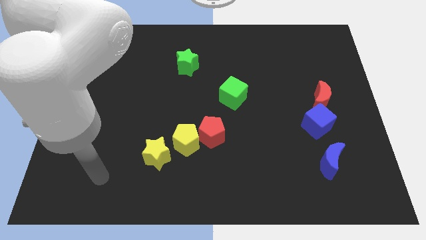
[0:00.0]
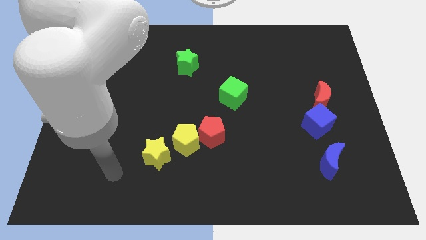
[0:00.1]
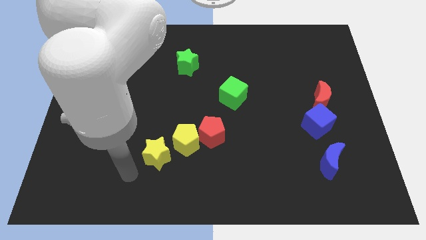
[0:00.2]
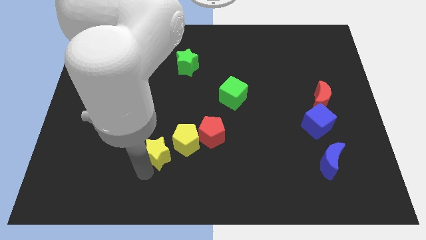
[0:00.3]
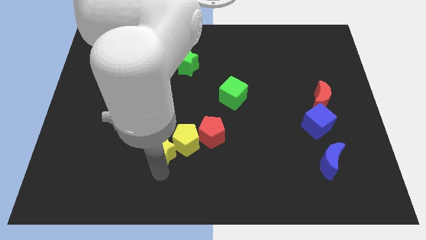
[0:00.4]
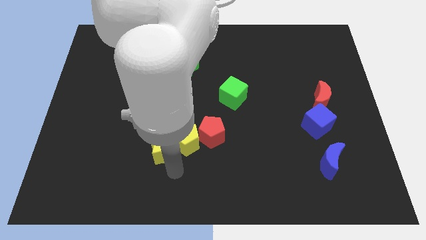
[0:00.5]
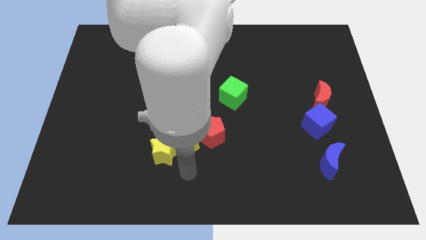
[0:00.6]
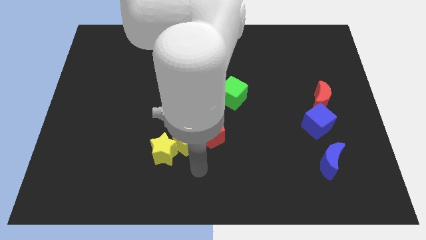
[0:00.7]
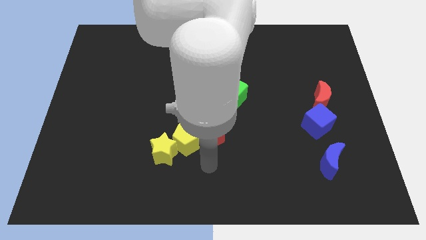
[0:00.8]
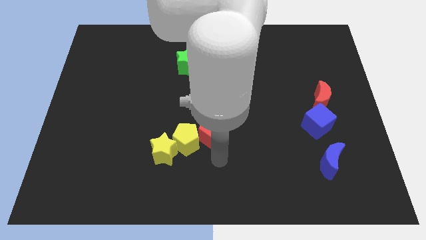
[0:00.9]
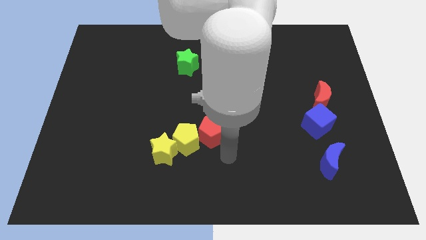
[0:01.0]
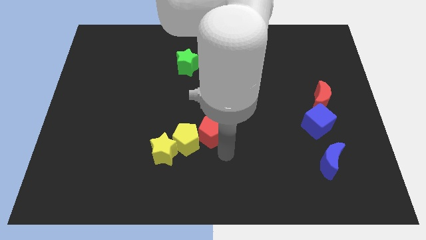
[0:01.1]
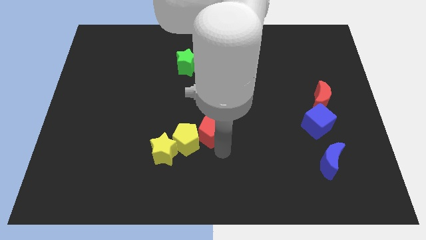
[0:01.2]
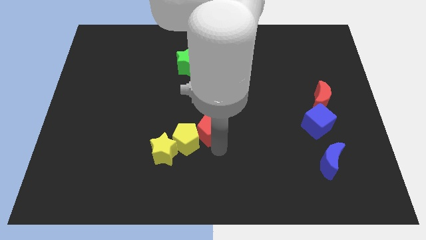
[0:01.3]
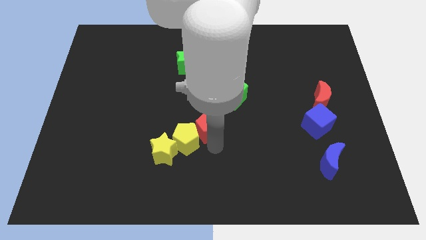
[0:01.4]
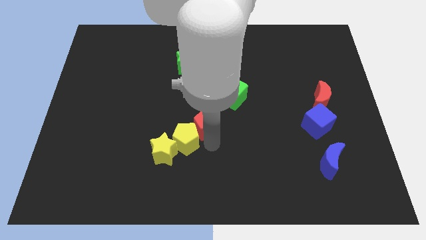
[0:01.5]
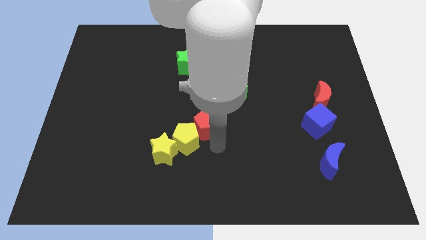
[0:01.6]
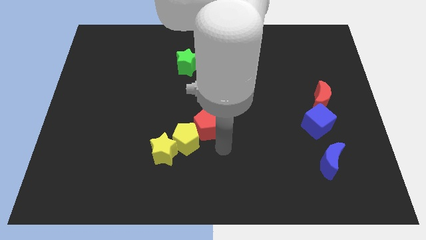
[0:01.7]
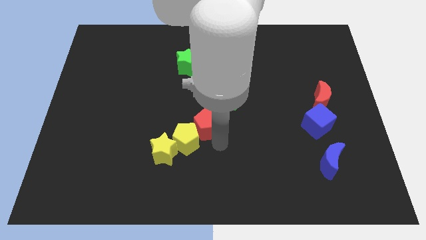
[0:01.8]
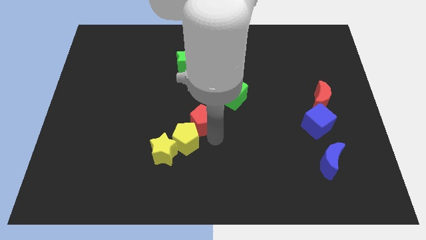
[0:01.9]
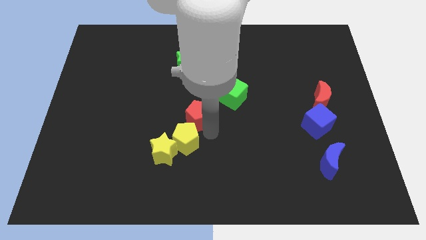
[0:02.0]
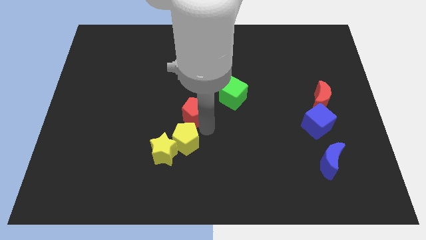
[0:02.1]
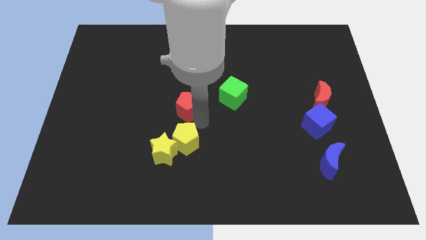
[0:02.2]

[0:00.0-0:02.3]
slightly push the red pentagon upwards and then to the left

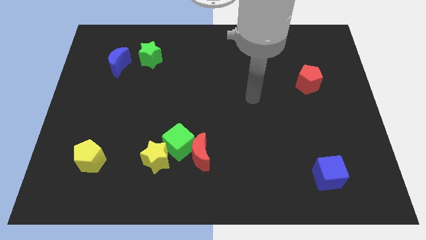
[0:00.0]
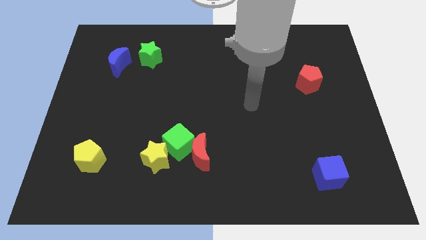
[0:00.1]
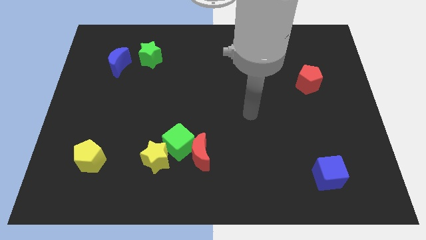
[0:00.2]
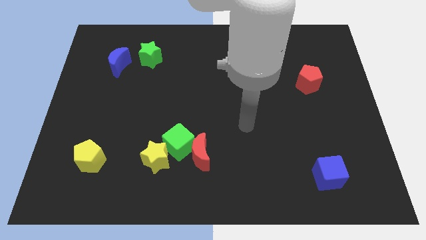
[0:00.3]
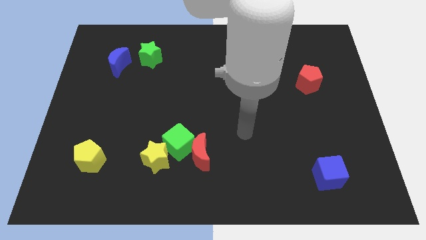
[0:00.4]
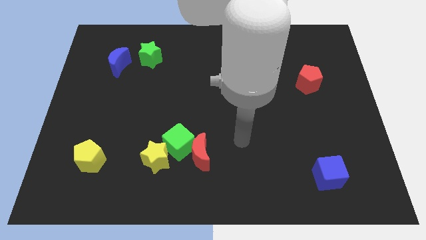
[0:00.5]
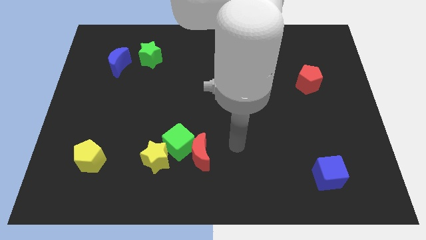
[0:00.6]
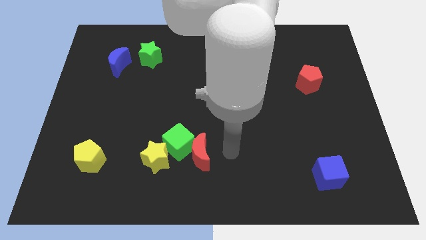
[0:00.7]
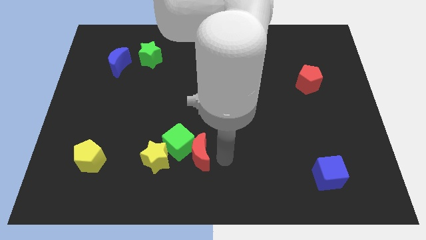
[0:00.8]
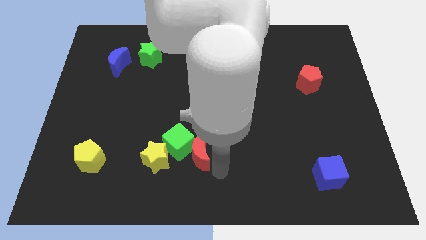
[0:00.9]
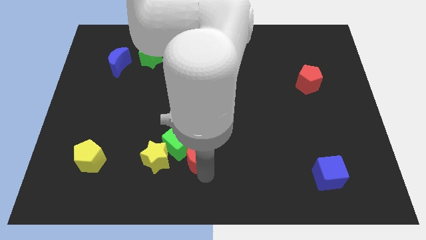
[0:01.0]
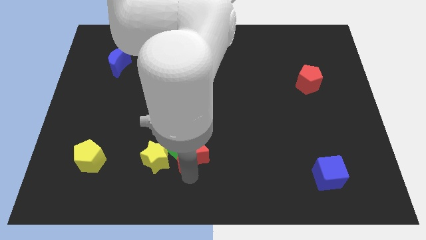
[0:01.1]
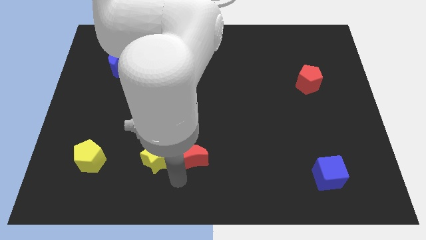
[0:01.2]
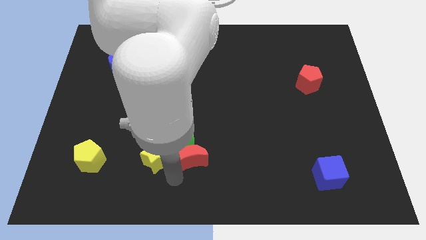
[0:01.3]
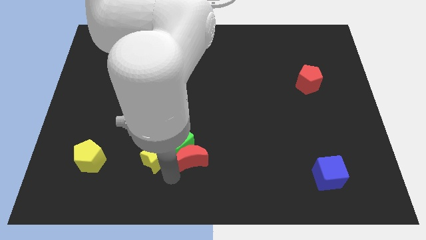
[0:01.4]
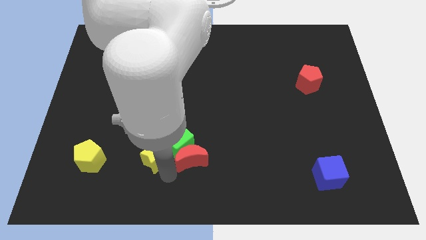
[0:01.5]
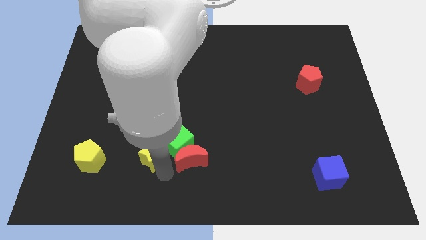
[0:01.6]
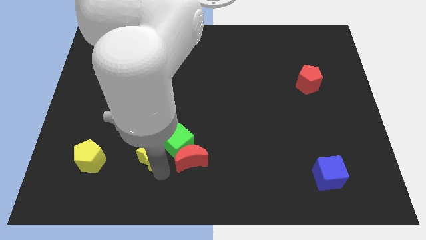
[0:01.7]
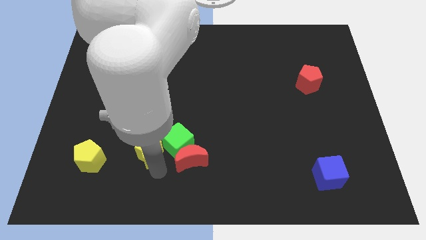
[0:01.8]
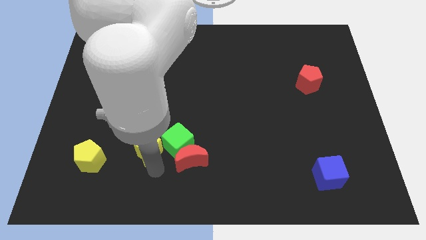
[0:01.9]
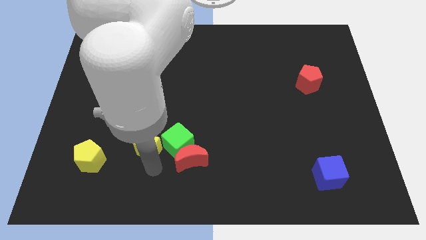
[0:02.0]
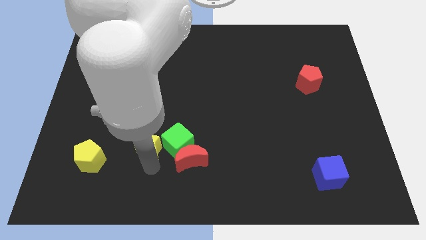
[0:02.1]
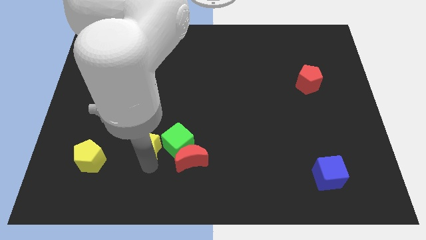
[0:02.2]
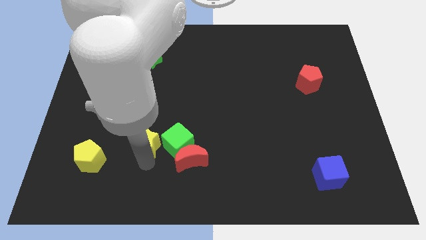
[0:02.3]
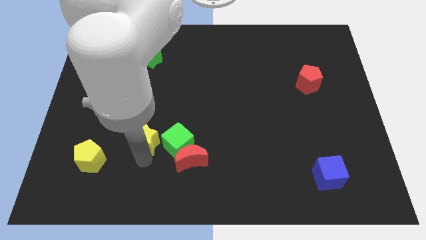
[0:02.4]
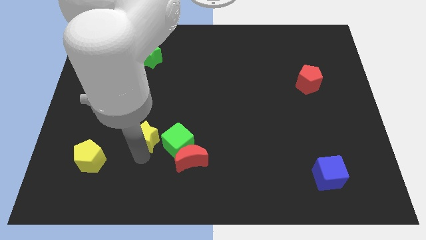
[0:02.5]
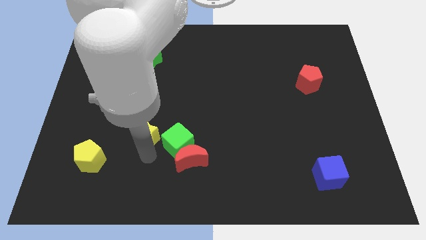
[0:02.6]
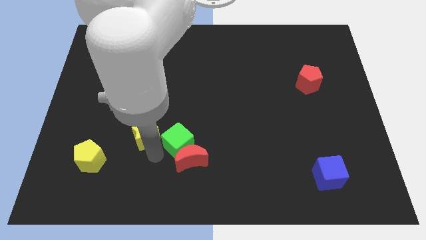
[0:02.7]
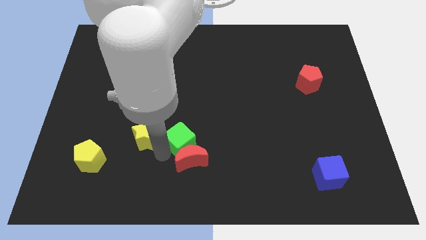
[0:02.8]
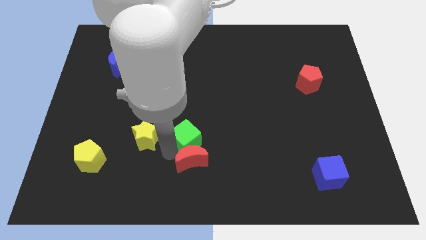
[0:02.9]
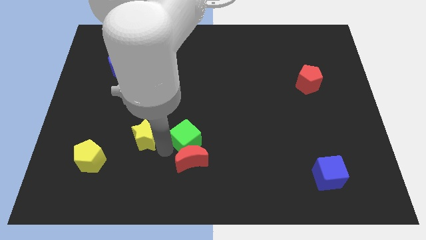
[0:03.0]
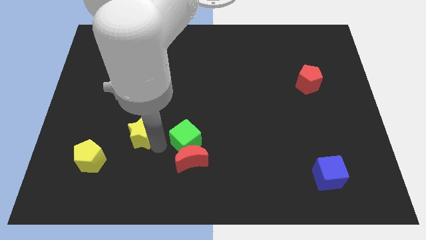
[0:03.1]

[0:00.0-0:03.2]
move the yellow star a little bit diagonally upwards and left

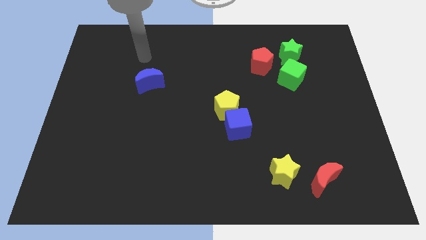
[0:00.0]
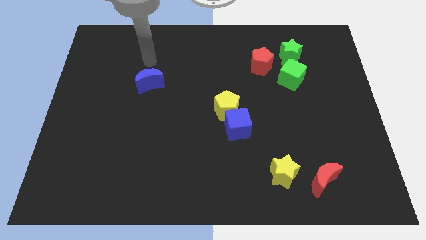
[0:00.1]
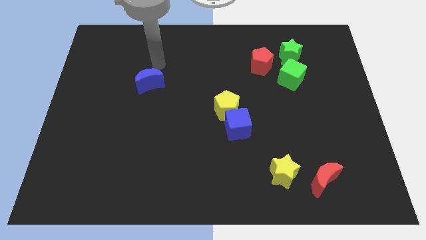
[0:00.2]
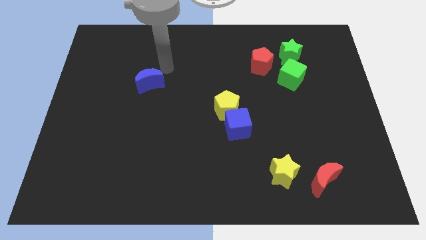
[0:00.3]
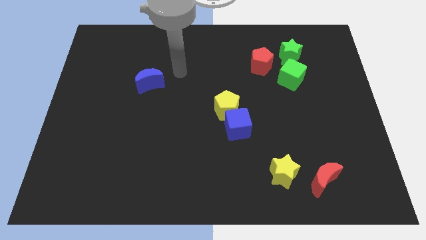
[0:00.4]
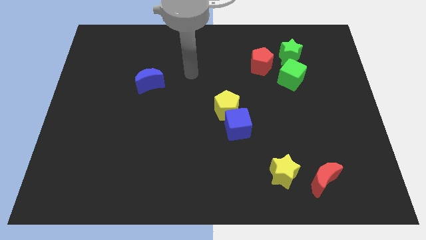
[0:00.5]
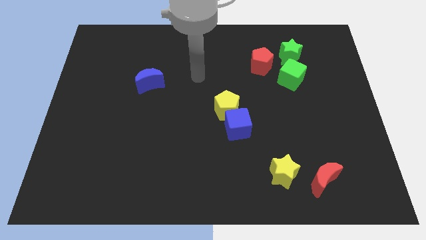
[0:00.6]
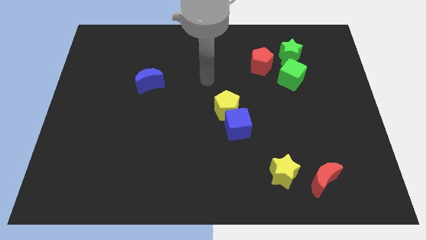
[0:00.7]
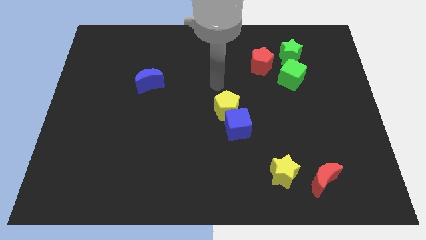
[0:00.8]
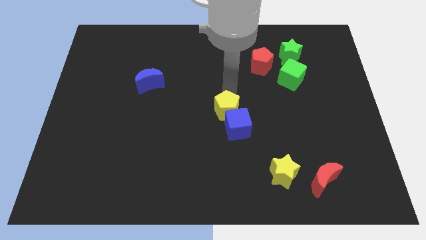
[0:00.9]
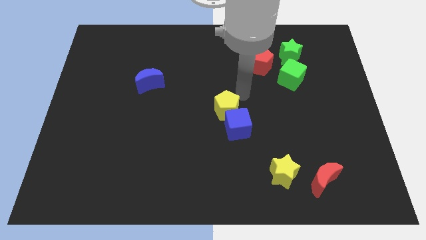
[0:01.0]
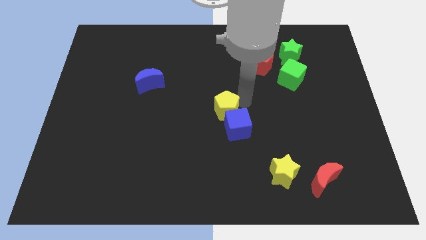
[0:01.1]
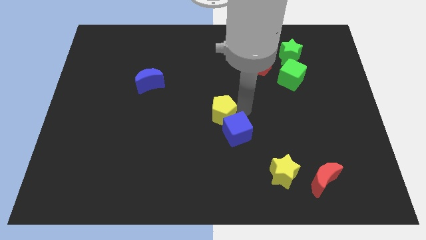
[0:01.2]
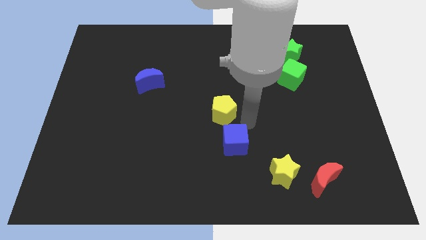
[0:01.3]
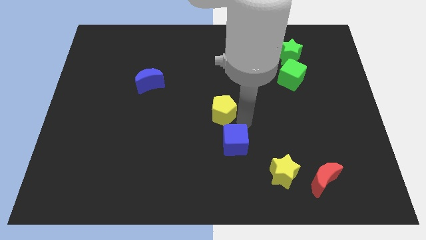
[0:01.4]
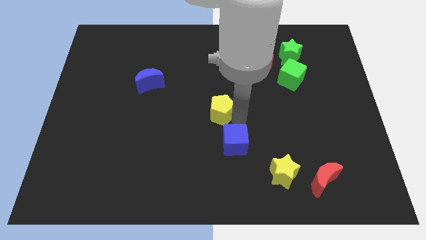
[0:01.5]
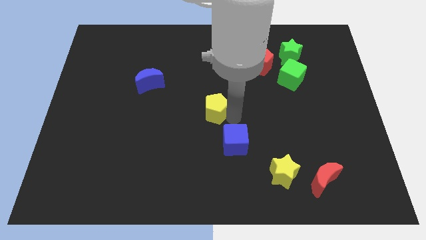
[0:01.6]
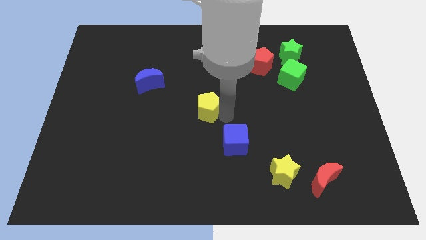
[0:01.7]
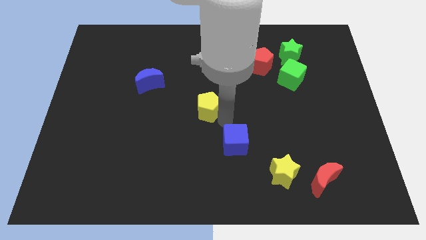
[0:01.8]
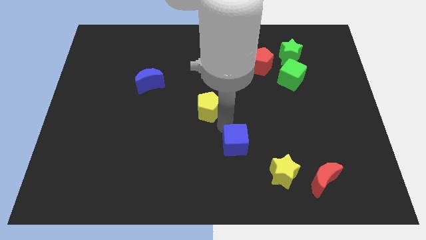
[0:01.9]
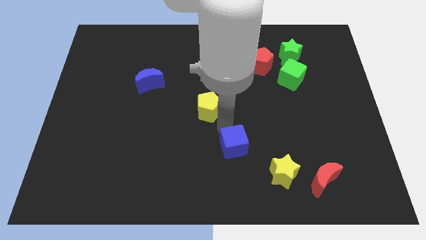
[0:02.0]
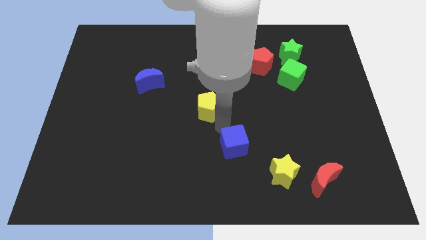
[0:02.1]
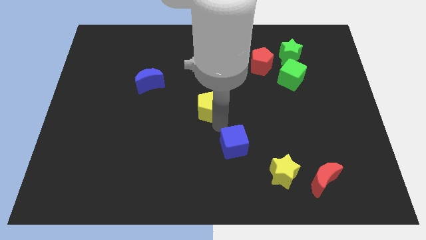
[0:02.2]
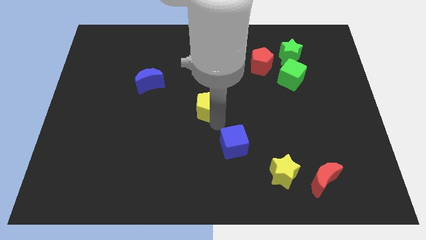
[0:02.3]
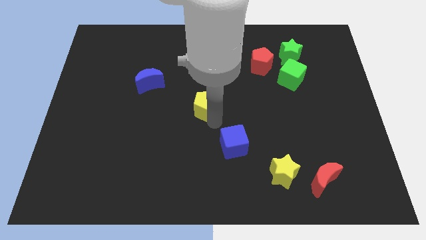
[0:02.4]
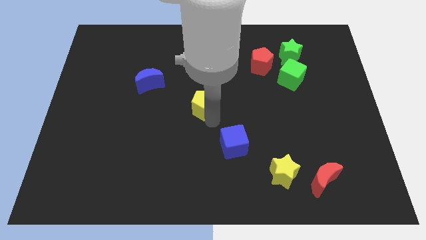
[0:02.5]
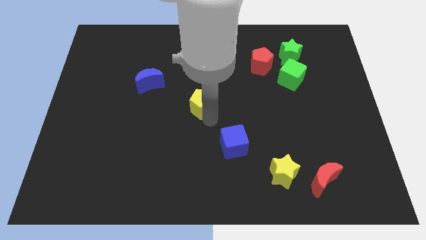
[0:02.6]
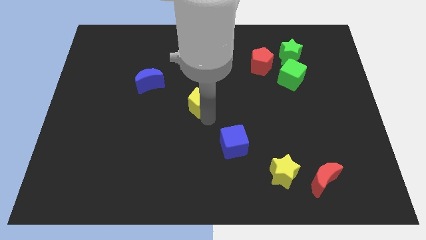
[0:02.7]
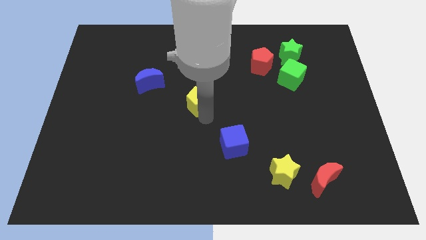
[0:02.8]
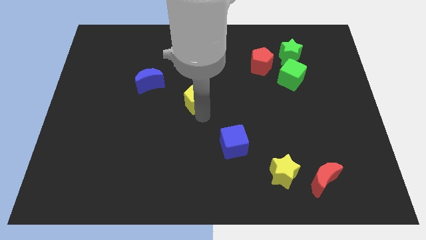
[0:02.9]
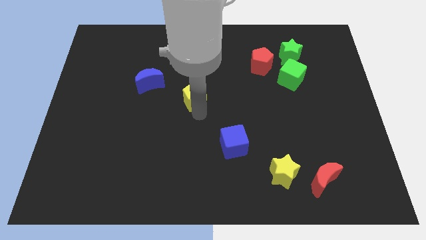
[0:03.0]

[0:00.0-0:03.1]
push the yellow pentagon somewhat upwards and then to the left
